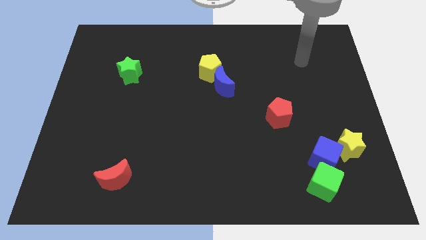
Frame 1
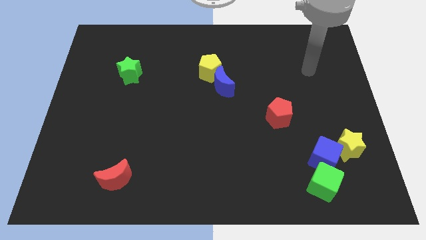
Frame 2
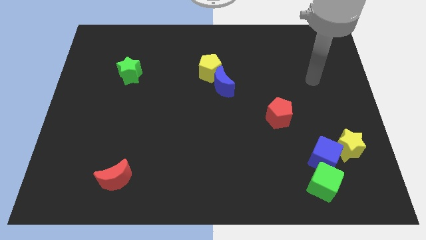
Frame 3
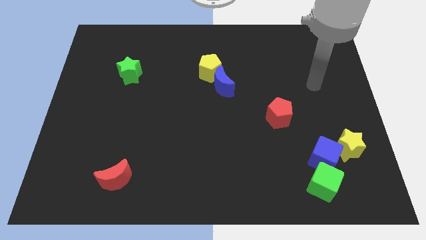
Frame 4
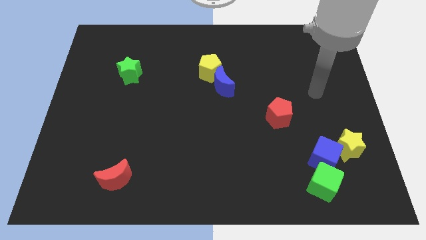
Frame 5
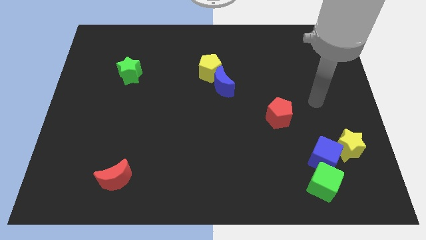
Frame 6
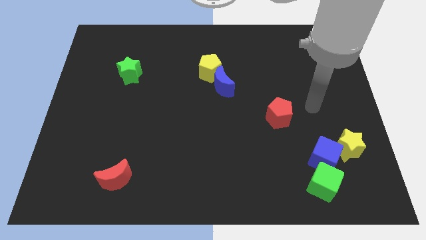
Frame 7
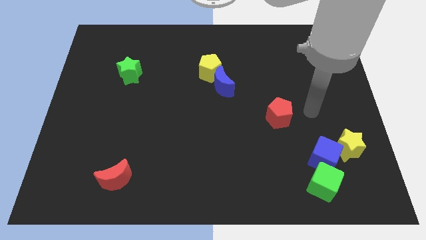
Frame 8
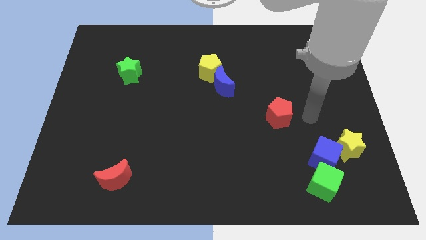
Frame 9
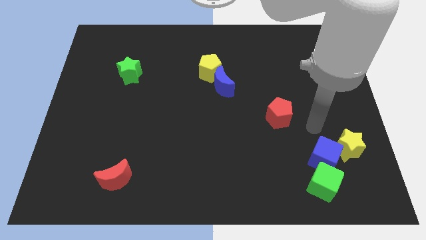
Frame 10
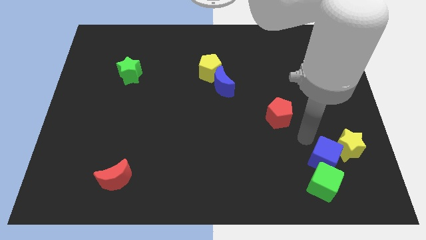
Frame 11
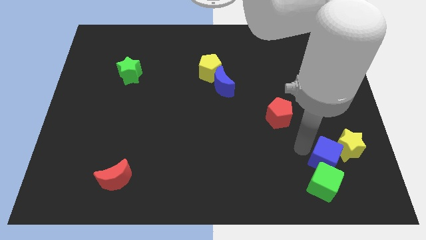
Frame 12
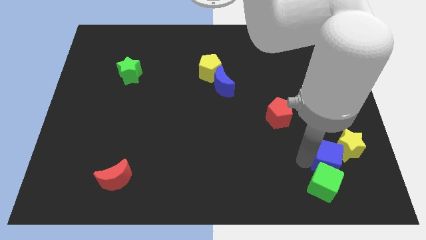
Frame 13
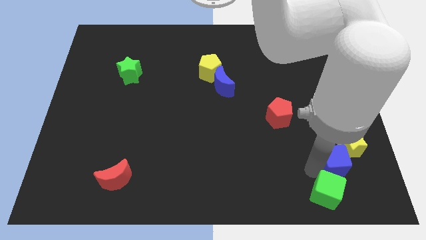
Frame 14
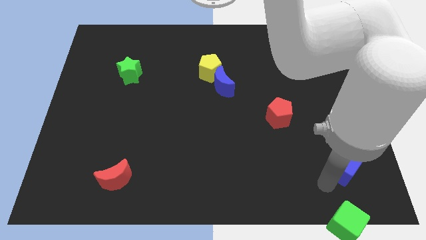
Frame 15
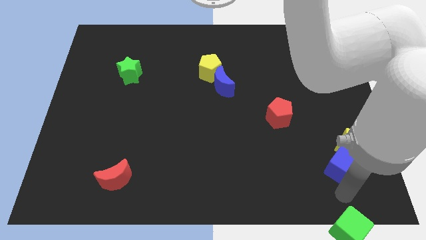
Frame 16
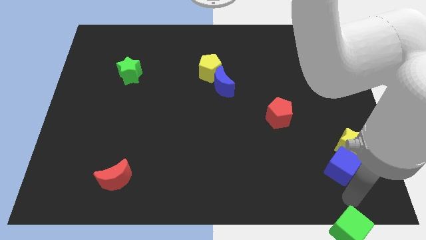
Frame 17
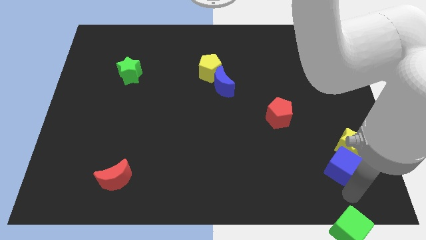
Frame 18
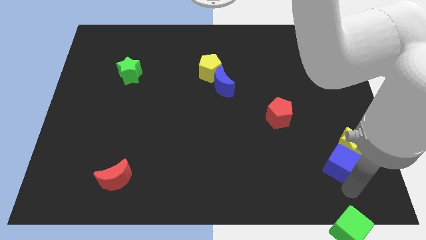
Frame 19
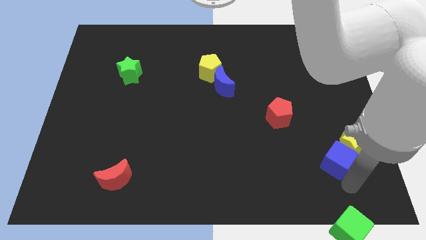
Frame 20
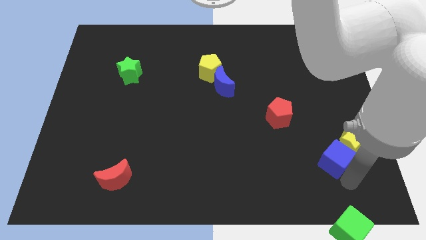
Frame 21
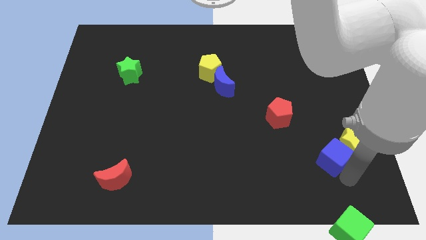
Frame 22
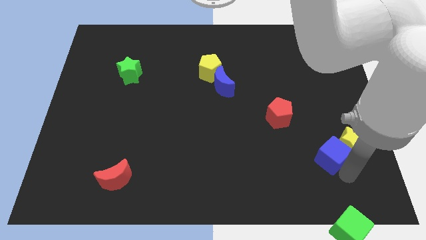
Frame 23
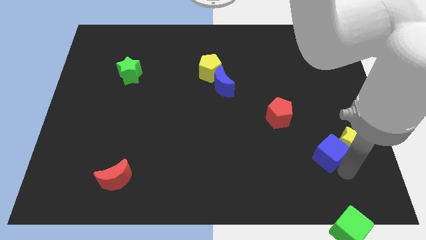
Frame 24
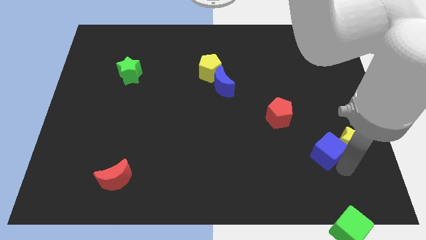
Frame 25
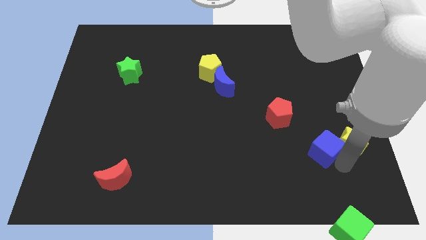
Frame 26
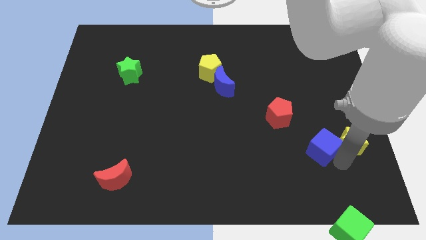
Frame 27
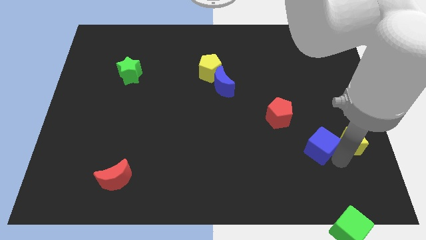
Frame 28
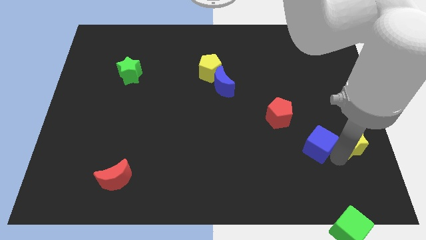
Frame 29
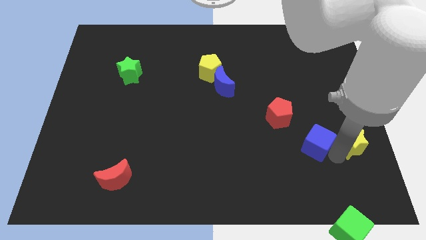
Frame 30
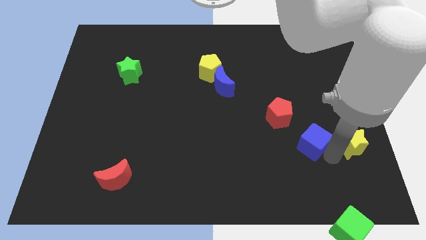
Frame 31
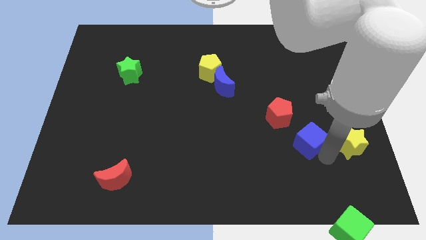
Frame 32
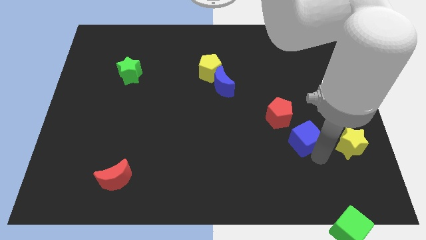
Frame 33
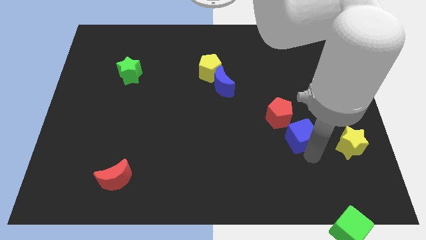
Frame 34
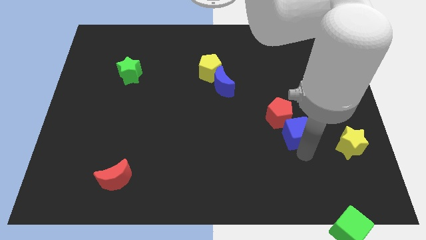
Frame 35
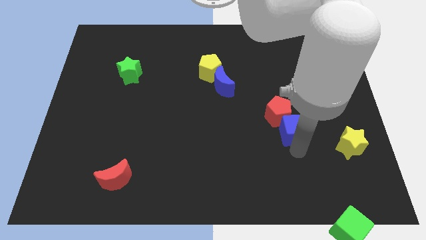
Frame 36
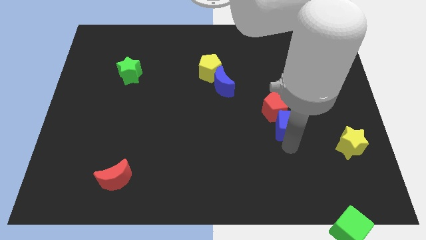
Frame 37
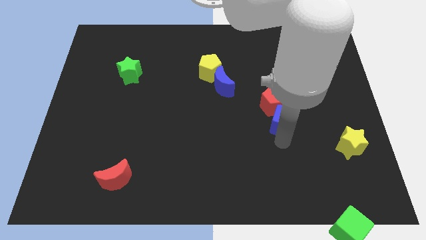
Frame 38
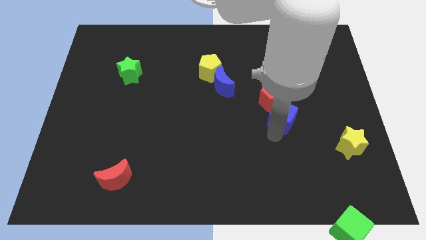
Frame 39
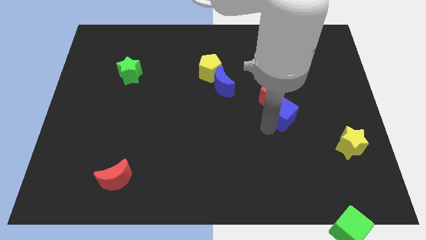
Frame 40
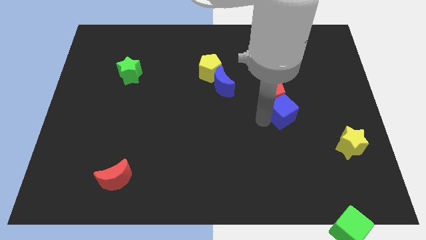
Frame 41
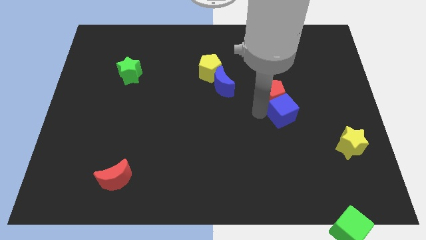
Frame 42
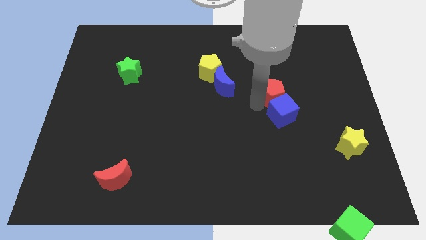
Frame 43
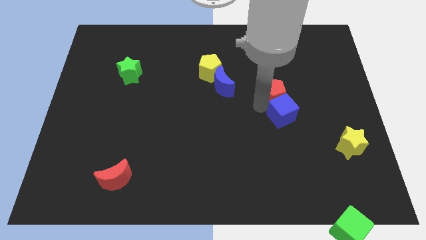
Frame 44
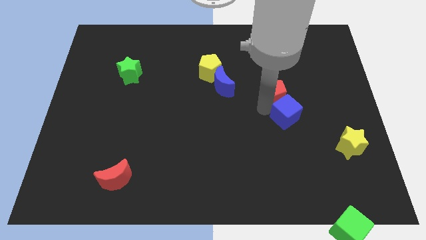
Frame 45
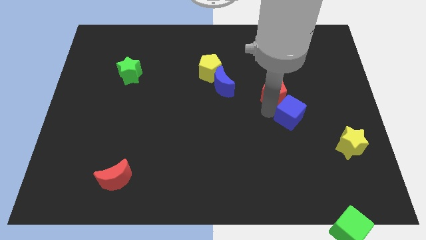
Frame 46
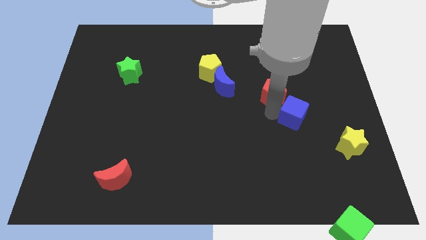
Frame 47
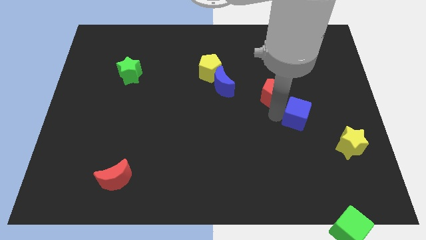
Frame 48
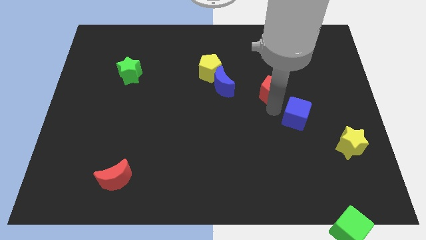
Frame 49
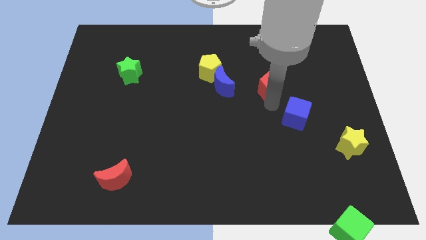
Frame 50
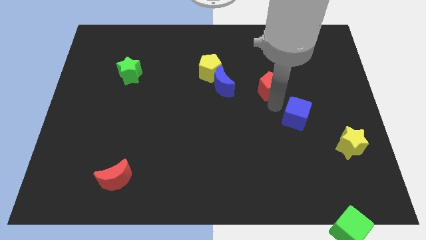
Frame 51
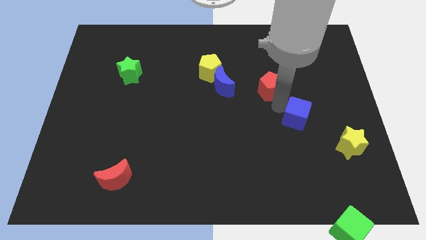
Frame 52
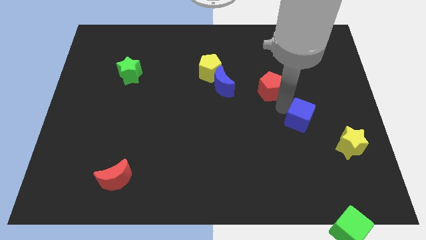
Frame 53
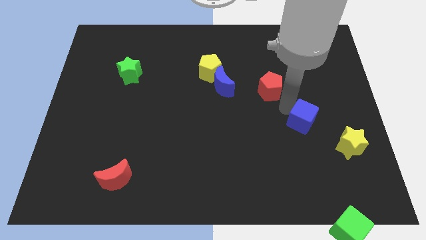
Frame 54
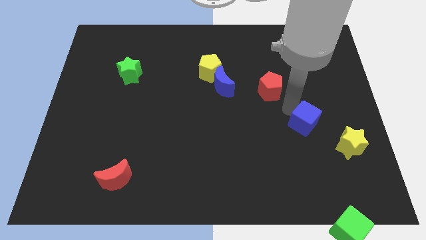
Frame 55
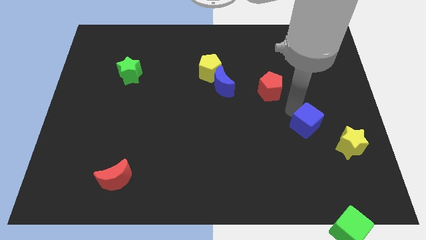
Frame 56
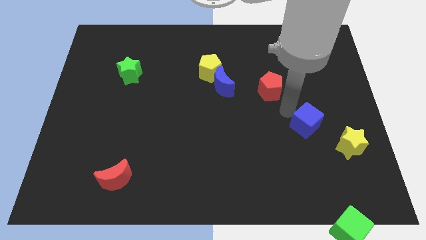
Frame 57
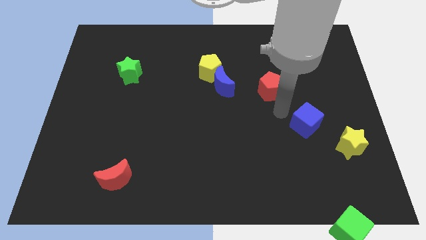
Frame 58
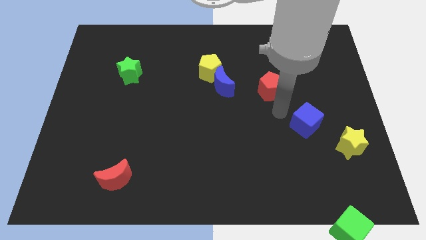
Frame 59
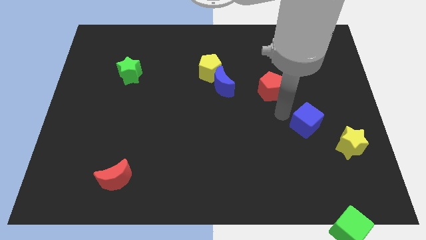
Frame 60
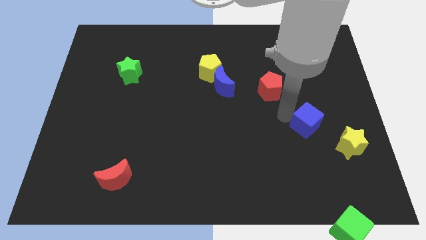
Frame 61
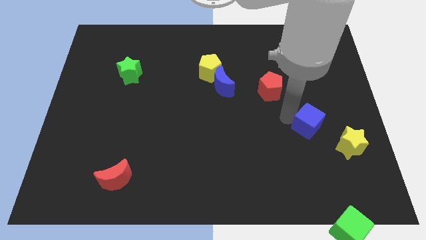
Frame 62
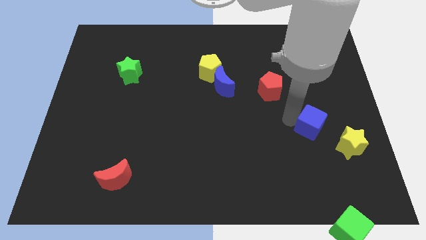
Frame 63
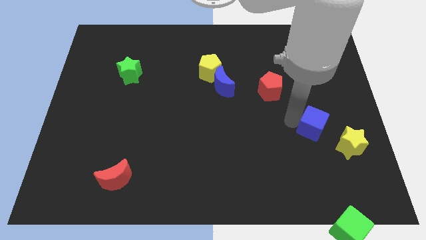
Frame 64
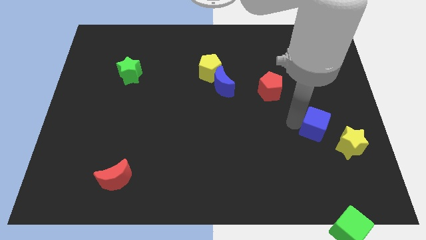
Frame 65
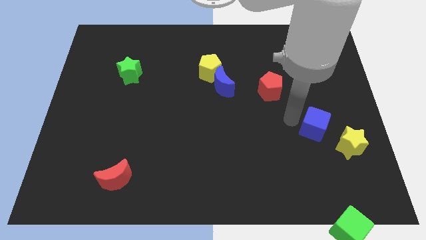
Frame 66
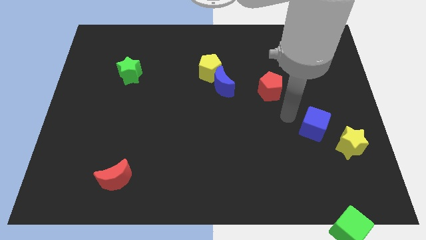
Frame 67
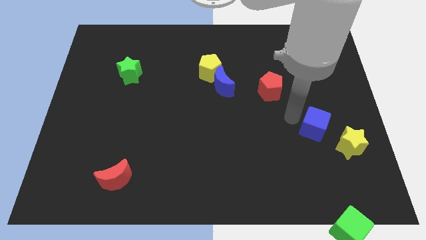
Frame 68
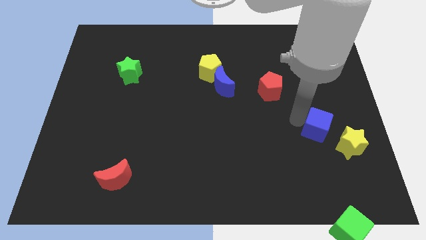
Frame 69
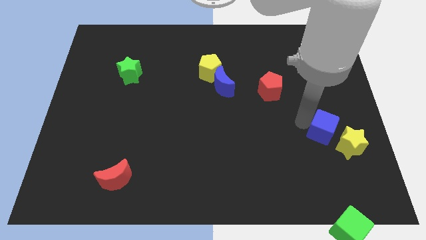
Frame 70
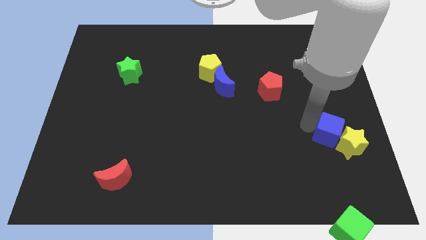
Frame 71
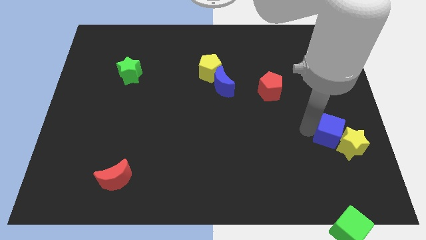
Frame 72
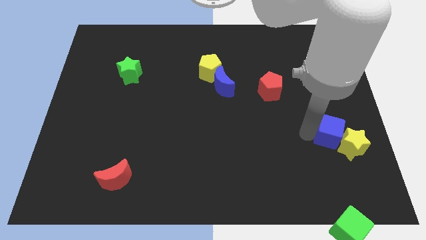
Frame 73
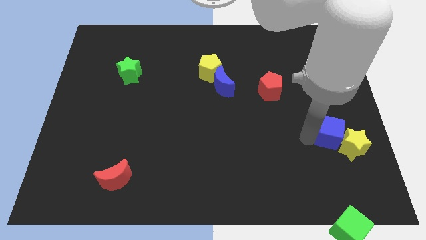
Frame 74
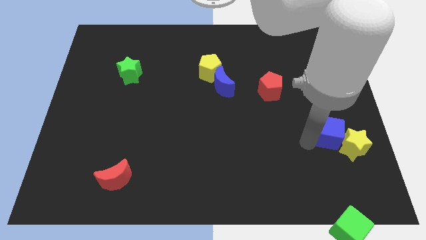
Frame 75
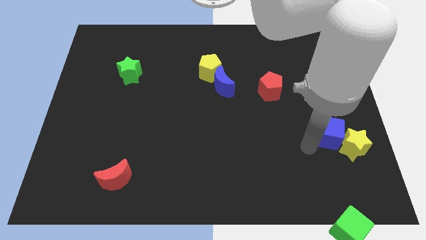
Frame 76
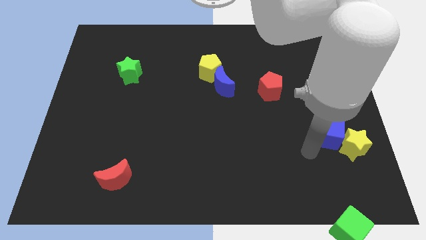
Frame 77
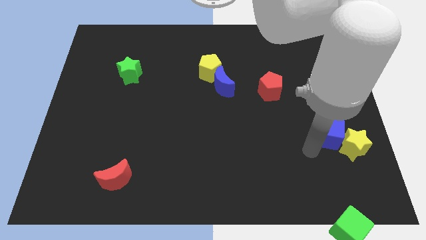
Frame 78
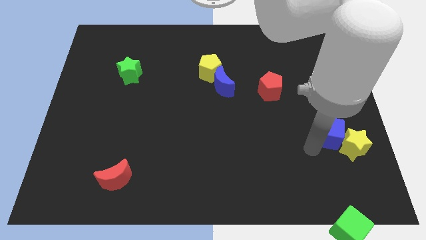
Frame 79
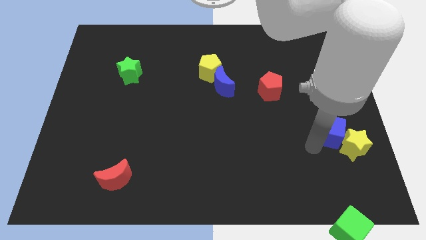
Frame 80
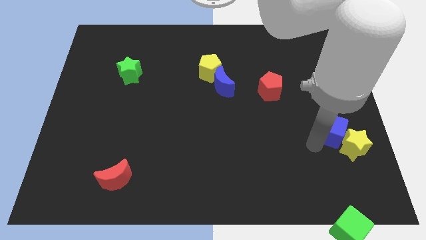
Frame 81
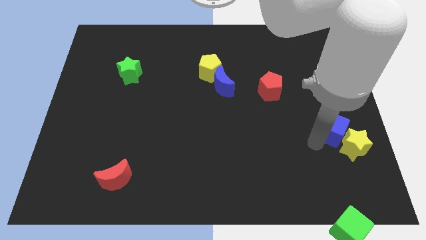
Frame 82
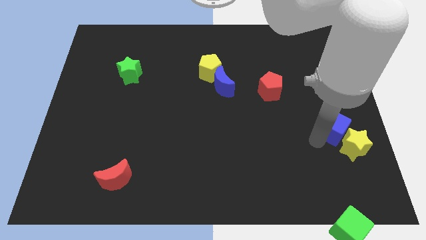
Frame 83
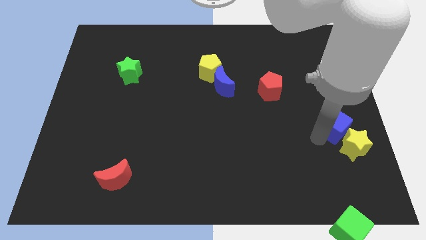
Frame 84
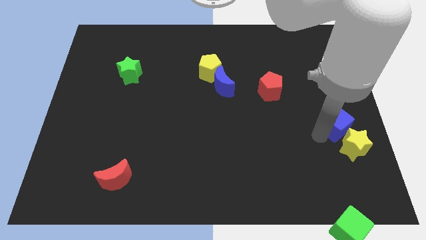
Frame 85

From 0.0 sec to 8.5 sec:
slide the blue cube to the right side of the board
